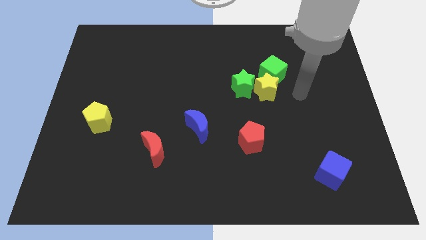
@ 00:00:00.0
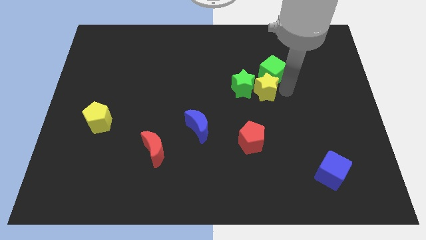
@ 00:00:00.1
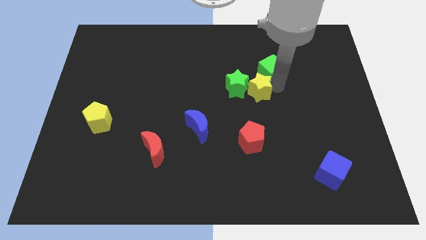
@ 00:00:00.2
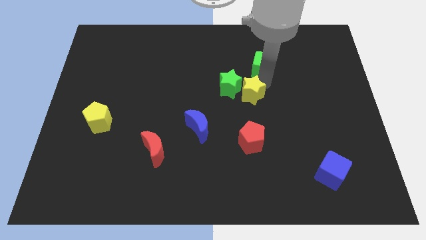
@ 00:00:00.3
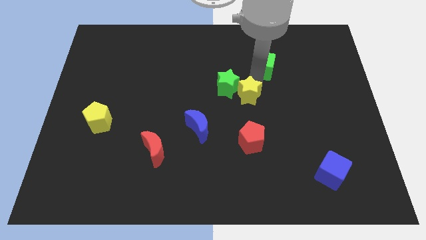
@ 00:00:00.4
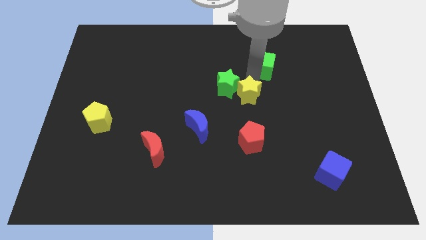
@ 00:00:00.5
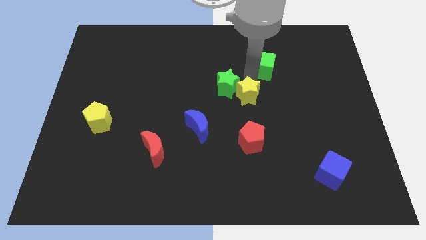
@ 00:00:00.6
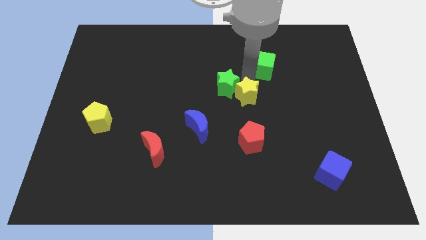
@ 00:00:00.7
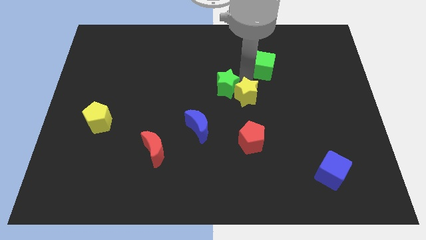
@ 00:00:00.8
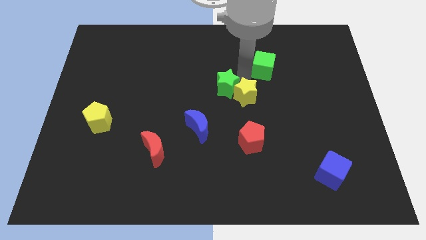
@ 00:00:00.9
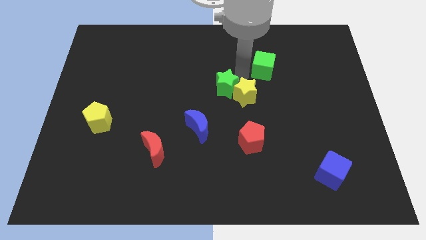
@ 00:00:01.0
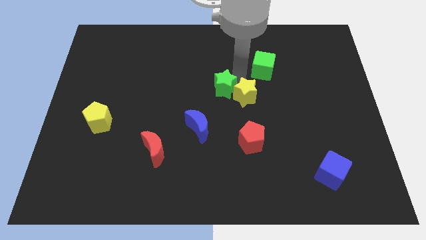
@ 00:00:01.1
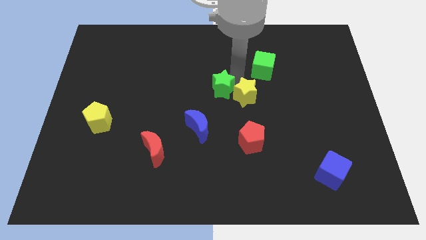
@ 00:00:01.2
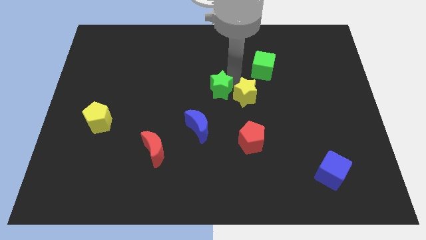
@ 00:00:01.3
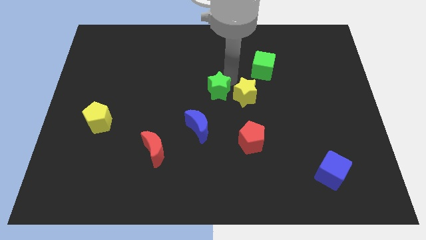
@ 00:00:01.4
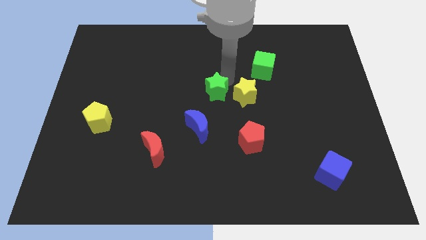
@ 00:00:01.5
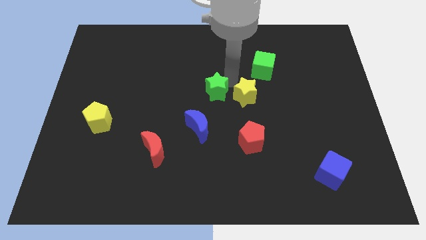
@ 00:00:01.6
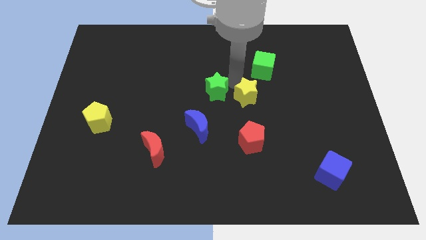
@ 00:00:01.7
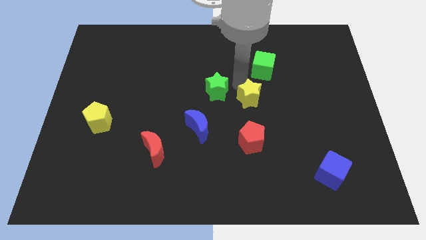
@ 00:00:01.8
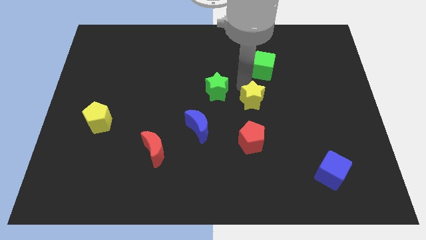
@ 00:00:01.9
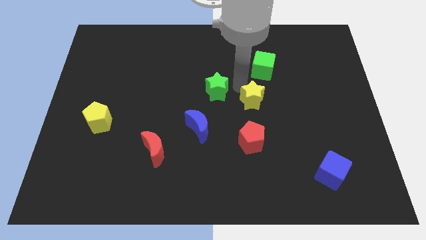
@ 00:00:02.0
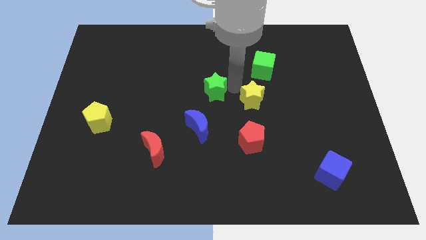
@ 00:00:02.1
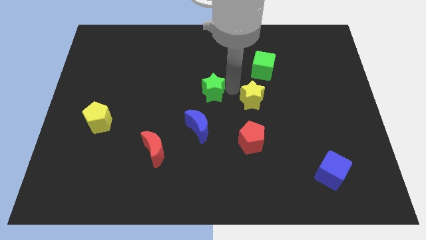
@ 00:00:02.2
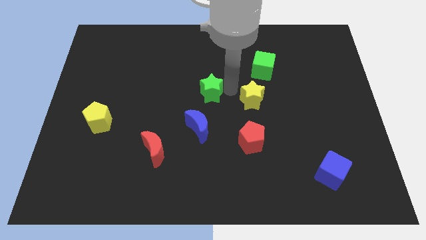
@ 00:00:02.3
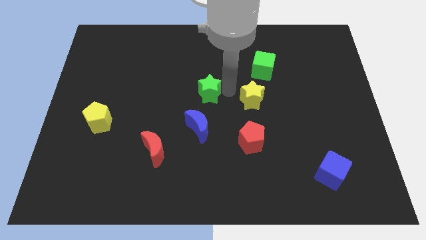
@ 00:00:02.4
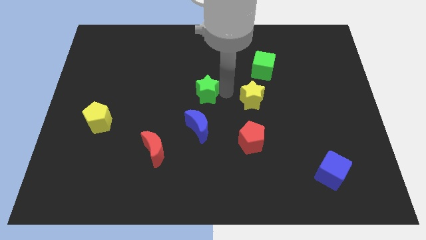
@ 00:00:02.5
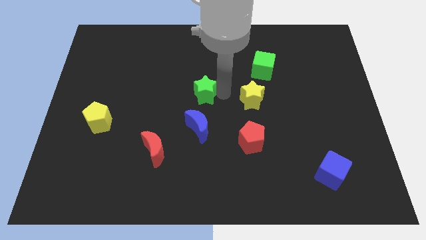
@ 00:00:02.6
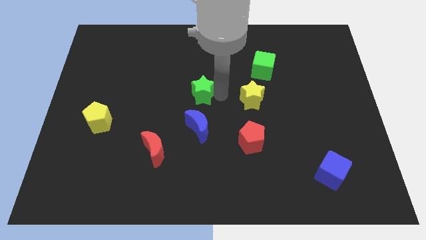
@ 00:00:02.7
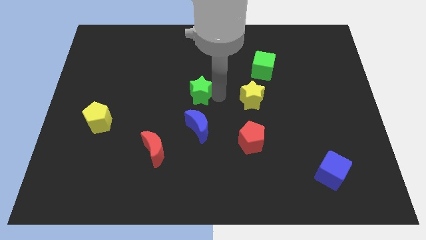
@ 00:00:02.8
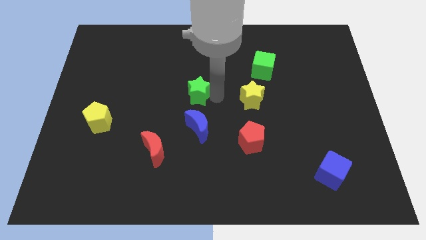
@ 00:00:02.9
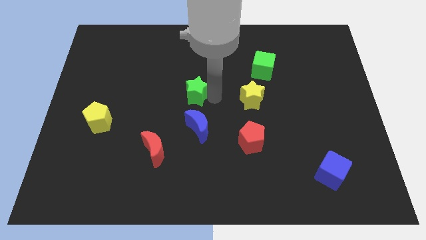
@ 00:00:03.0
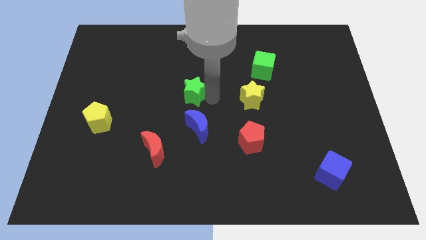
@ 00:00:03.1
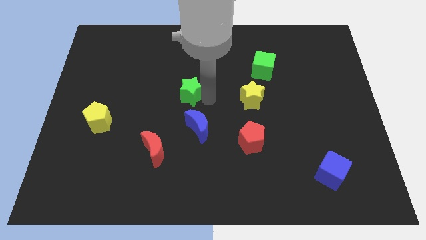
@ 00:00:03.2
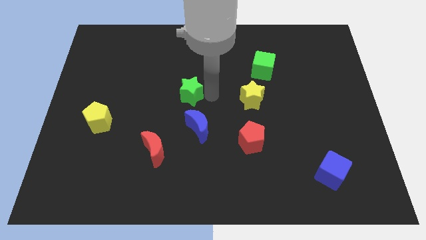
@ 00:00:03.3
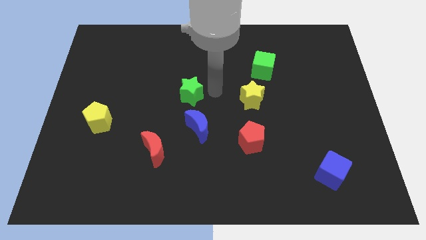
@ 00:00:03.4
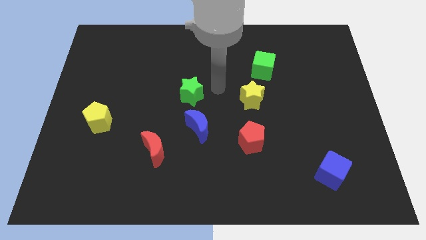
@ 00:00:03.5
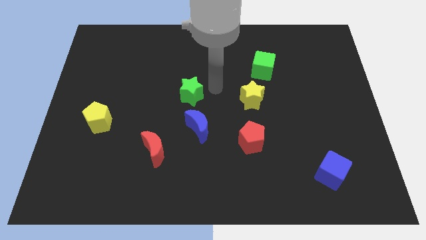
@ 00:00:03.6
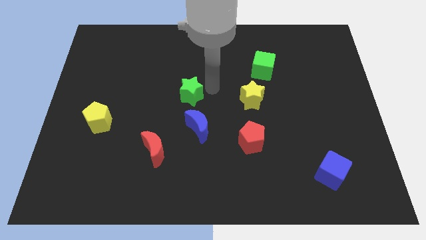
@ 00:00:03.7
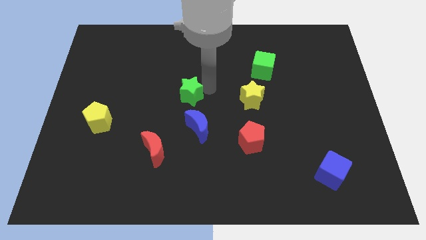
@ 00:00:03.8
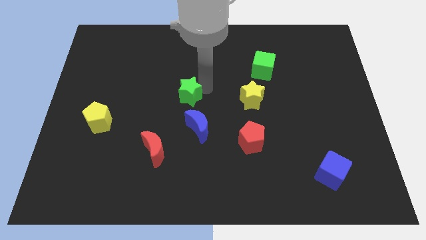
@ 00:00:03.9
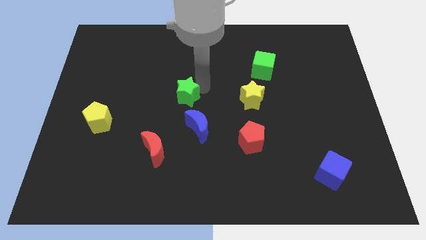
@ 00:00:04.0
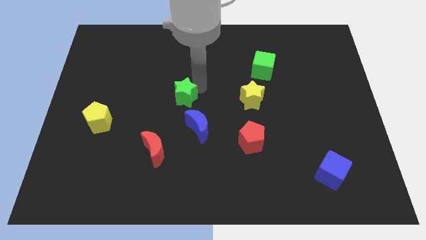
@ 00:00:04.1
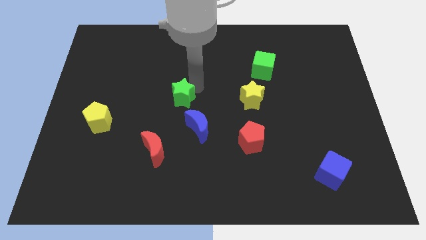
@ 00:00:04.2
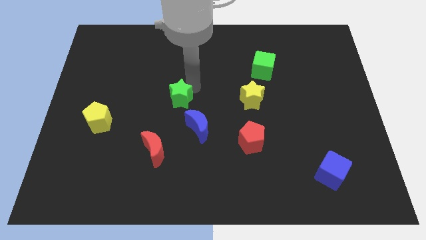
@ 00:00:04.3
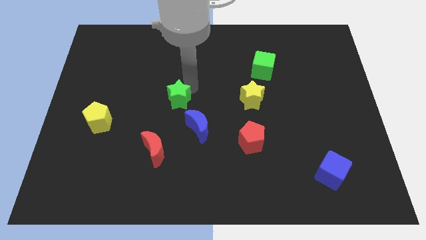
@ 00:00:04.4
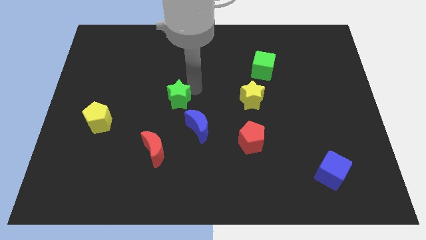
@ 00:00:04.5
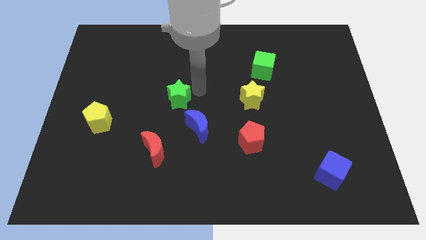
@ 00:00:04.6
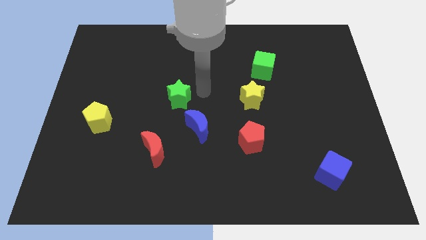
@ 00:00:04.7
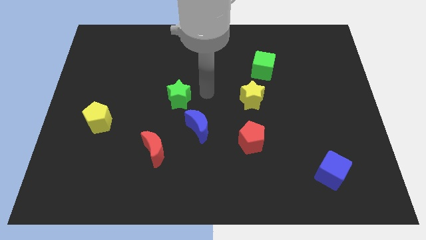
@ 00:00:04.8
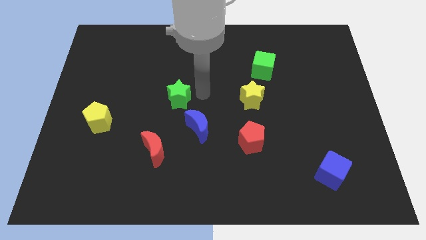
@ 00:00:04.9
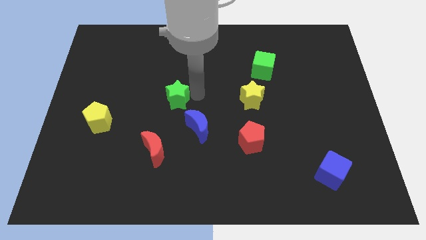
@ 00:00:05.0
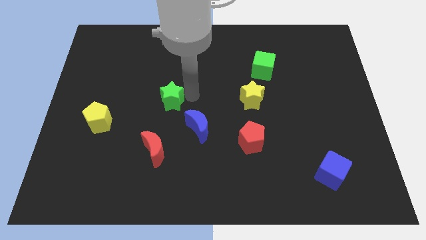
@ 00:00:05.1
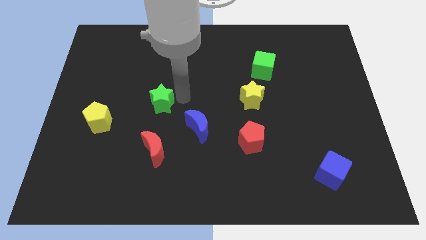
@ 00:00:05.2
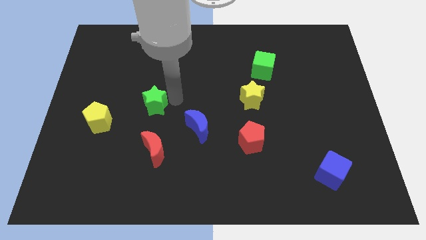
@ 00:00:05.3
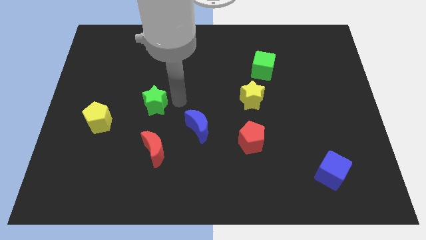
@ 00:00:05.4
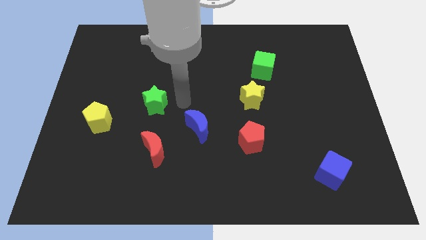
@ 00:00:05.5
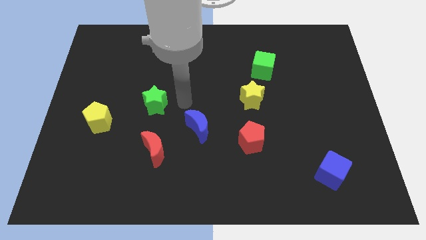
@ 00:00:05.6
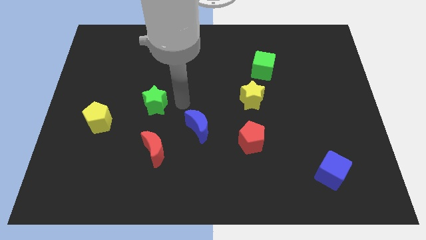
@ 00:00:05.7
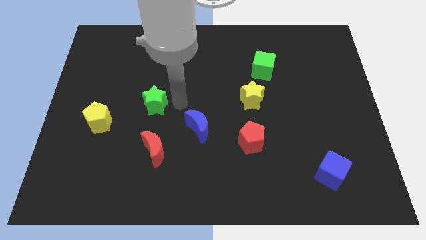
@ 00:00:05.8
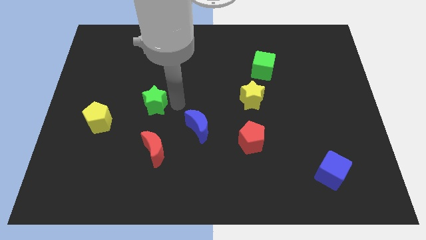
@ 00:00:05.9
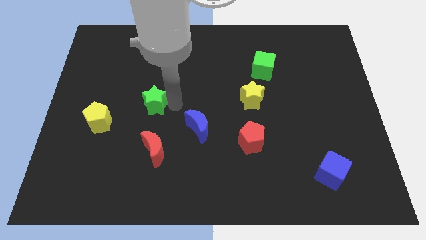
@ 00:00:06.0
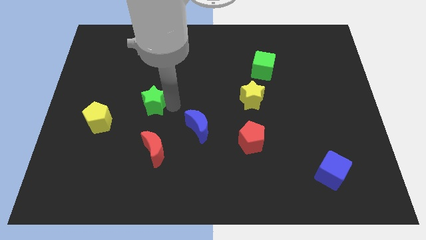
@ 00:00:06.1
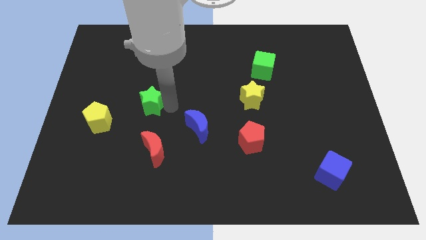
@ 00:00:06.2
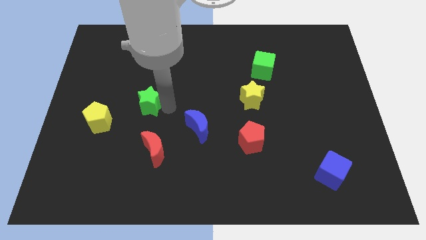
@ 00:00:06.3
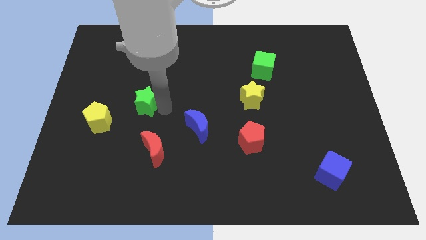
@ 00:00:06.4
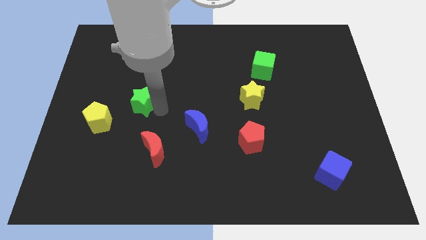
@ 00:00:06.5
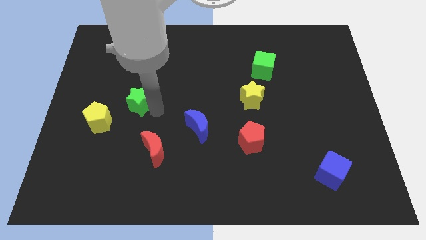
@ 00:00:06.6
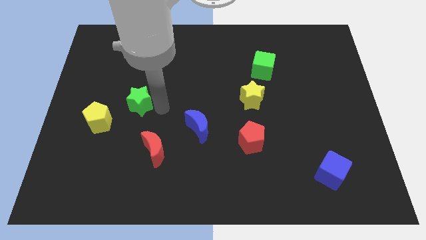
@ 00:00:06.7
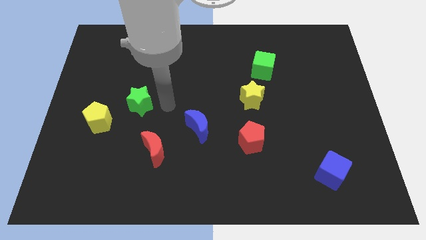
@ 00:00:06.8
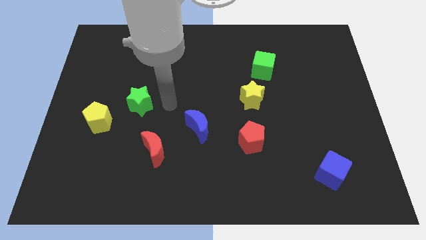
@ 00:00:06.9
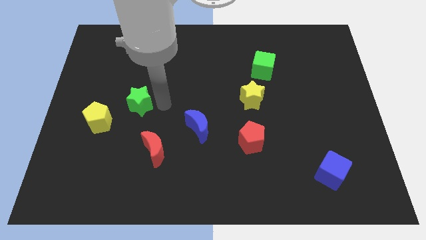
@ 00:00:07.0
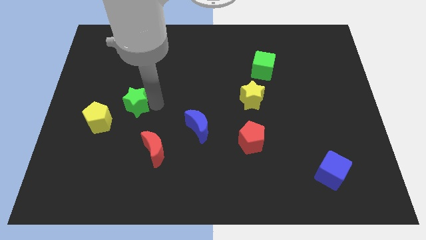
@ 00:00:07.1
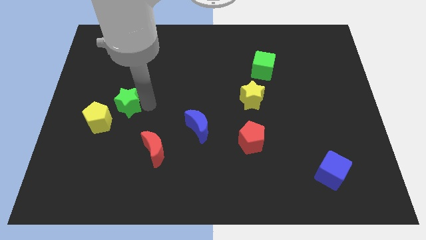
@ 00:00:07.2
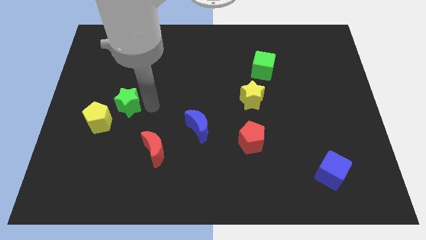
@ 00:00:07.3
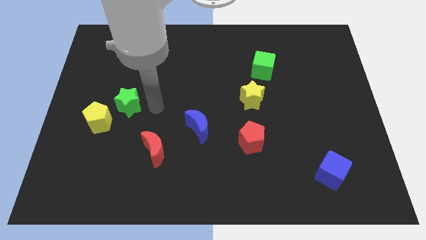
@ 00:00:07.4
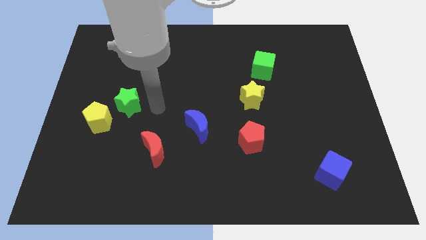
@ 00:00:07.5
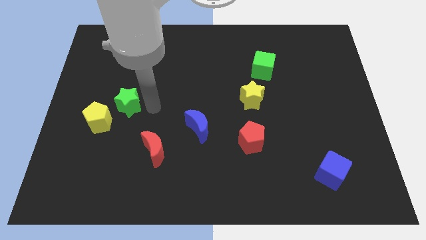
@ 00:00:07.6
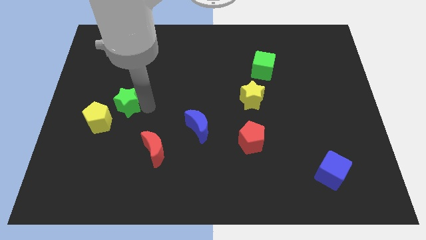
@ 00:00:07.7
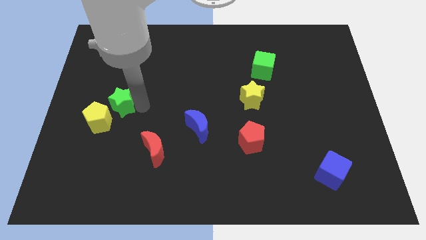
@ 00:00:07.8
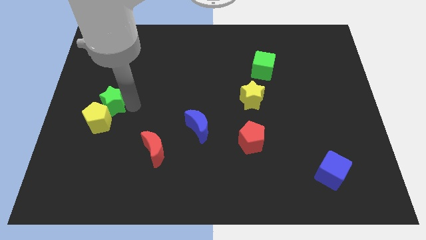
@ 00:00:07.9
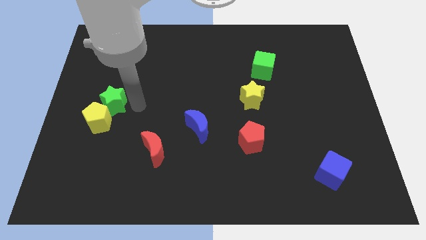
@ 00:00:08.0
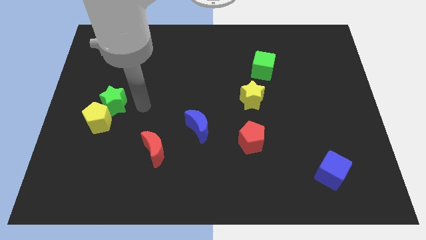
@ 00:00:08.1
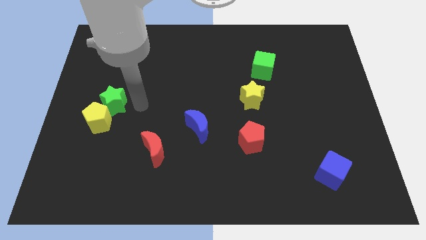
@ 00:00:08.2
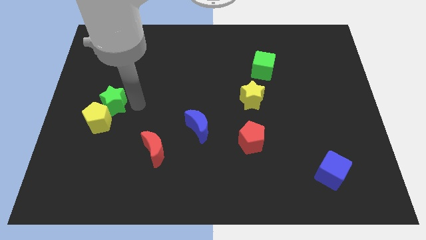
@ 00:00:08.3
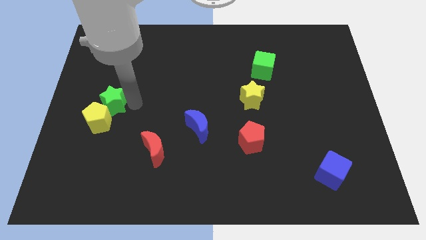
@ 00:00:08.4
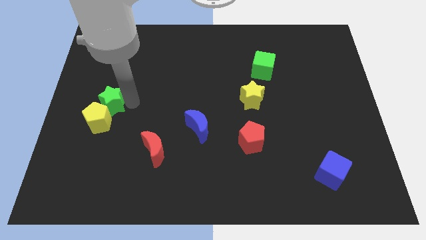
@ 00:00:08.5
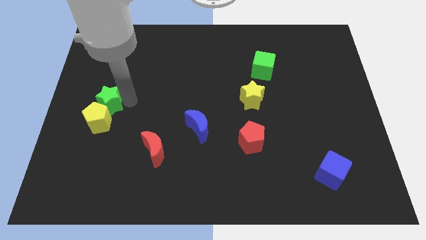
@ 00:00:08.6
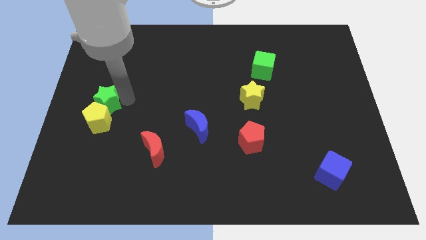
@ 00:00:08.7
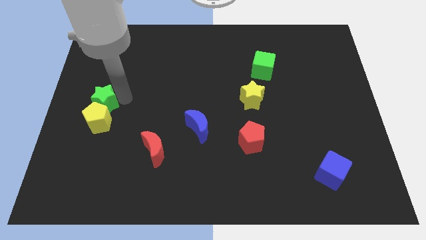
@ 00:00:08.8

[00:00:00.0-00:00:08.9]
move the green star to the center left
